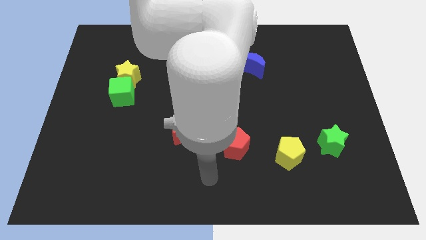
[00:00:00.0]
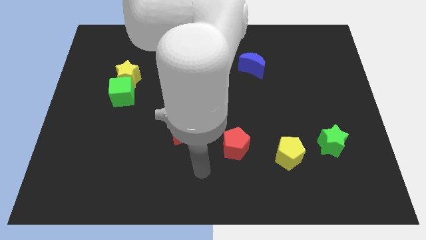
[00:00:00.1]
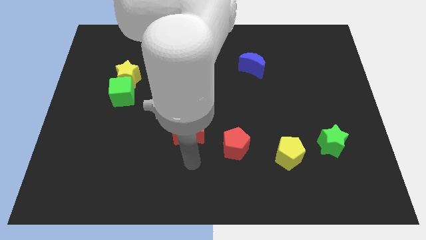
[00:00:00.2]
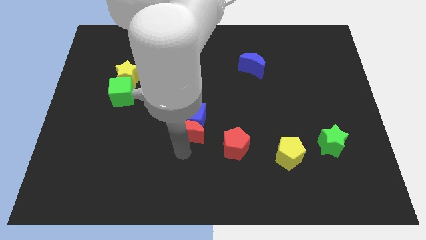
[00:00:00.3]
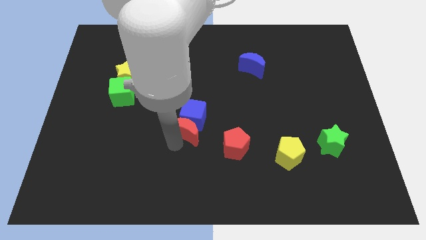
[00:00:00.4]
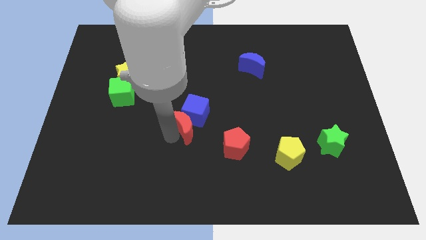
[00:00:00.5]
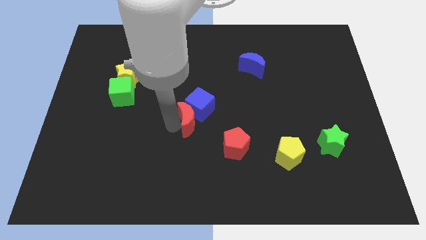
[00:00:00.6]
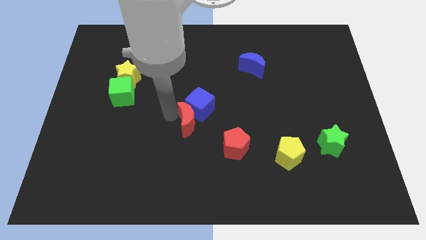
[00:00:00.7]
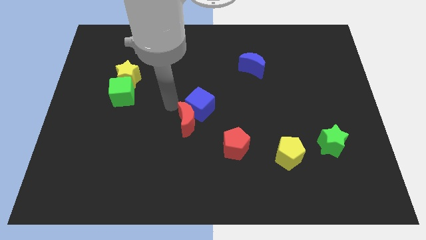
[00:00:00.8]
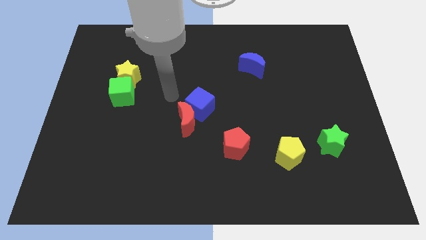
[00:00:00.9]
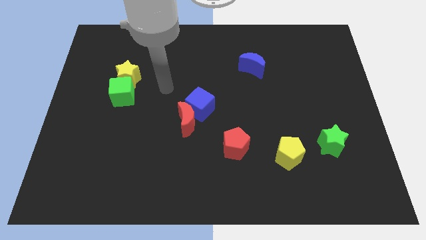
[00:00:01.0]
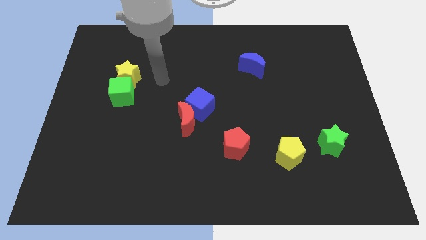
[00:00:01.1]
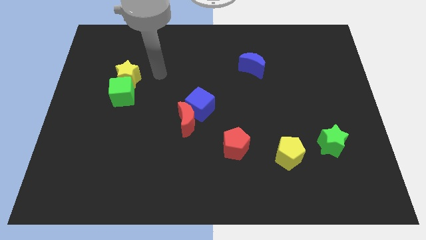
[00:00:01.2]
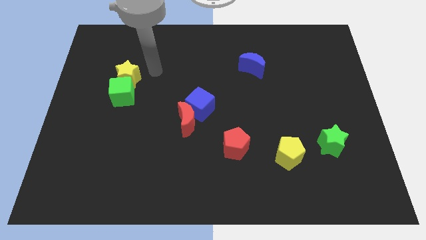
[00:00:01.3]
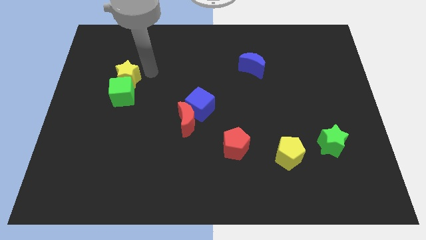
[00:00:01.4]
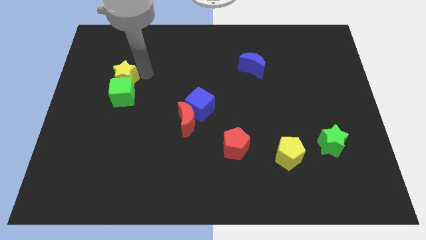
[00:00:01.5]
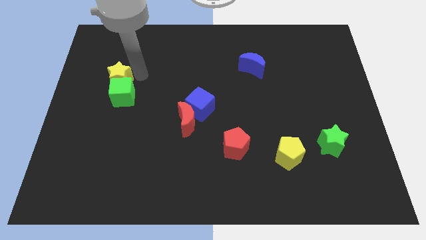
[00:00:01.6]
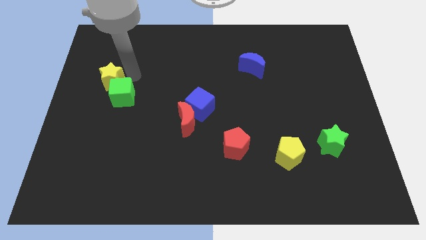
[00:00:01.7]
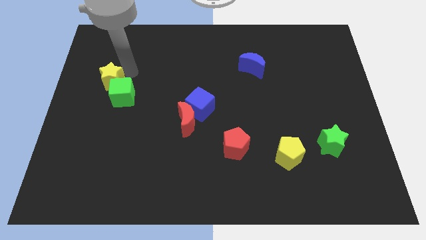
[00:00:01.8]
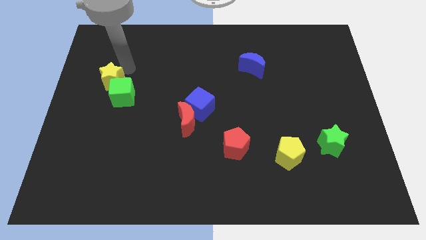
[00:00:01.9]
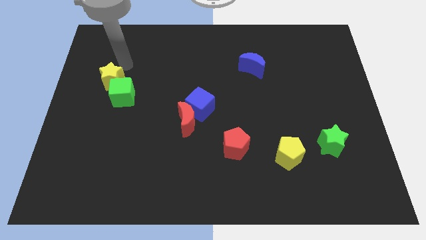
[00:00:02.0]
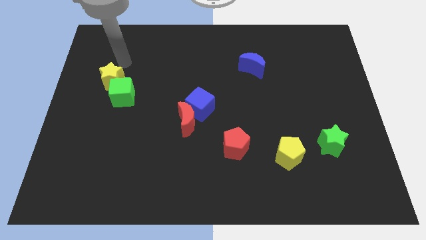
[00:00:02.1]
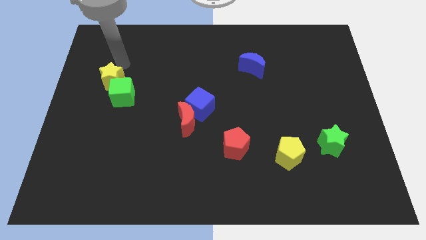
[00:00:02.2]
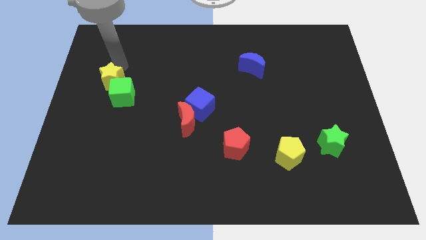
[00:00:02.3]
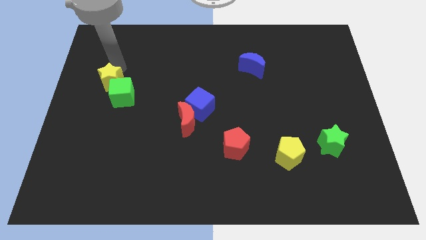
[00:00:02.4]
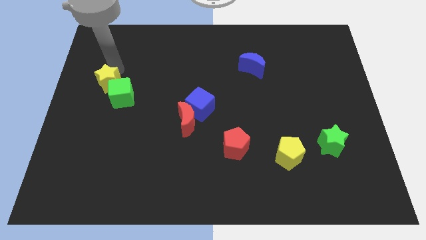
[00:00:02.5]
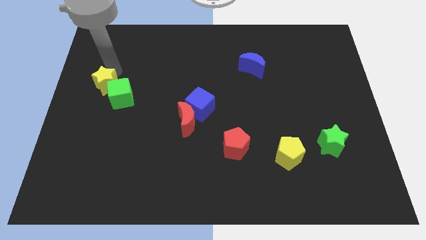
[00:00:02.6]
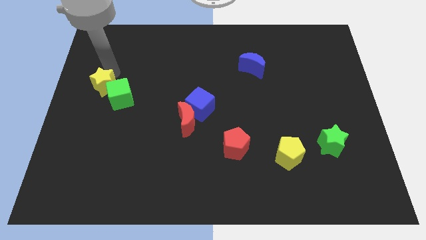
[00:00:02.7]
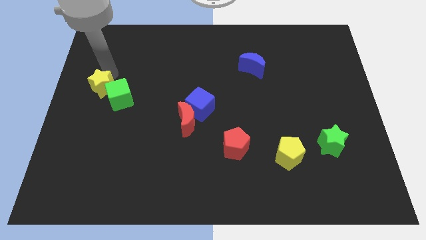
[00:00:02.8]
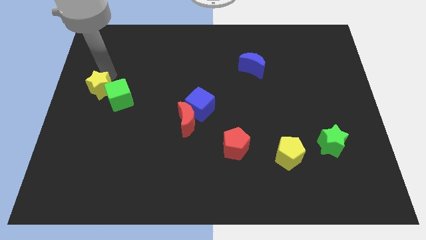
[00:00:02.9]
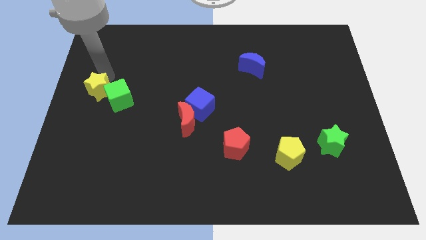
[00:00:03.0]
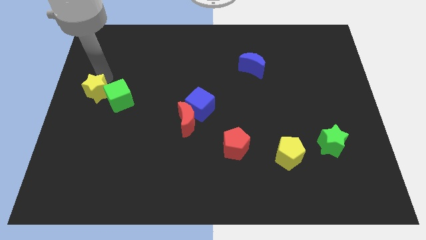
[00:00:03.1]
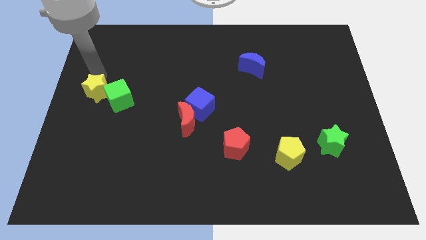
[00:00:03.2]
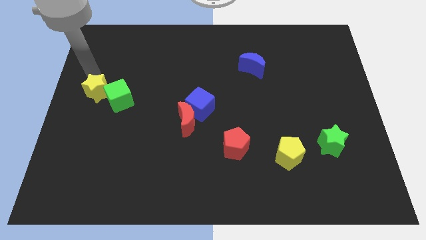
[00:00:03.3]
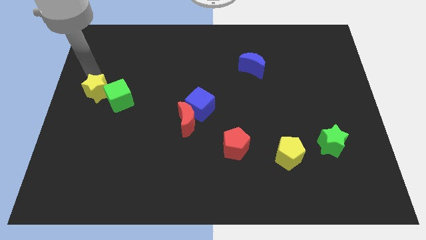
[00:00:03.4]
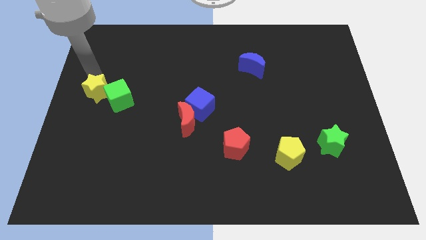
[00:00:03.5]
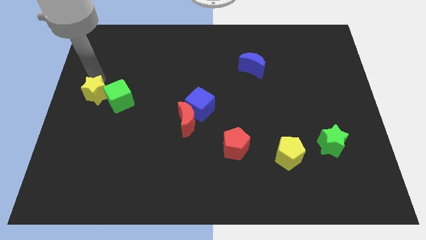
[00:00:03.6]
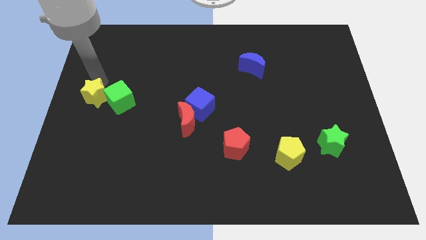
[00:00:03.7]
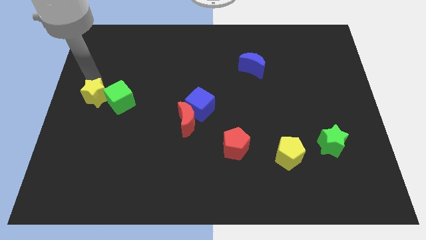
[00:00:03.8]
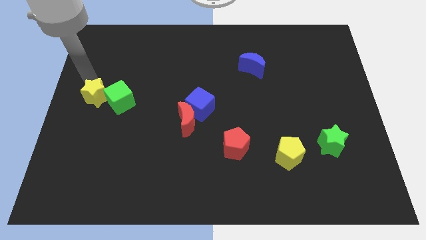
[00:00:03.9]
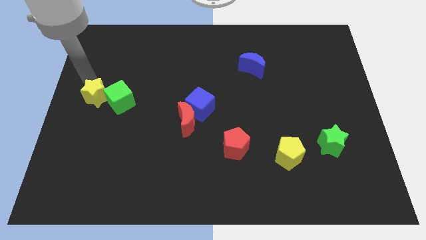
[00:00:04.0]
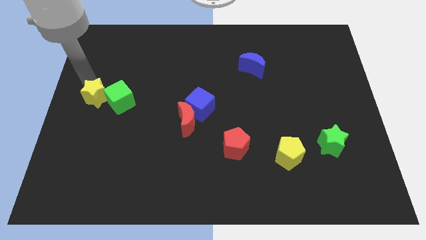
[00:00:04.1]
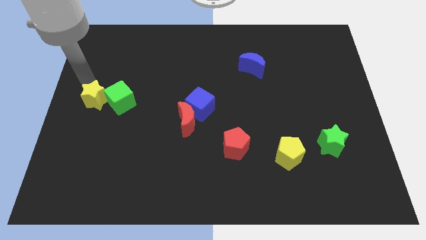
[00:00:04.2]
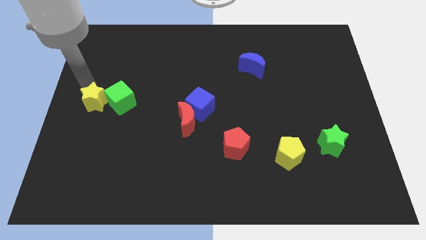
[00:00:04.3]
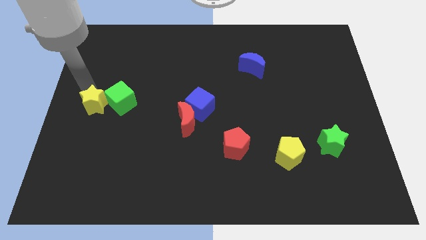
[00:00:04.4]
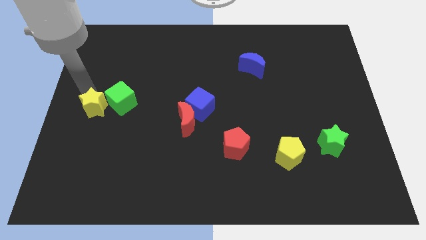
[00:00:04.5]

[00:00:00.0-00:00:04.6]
slide the yellow star downwards slightly

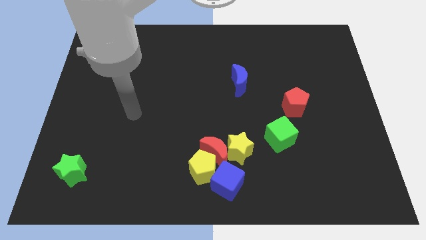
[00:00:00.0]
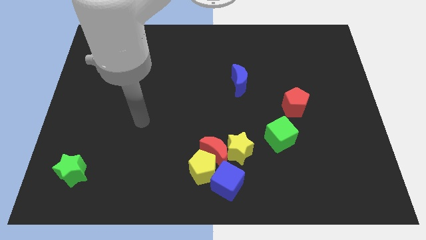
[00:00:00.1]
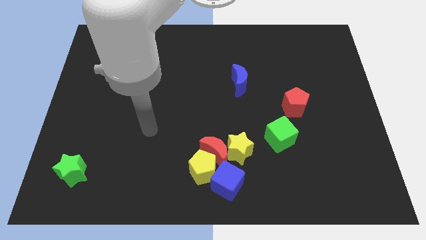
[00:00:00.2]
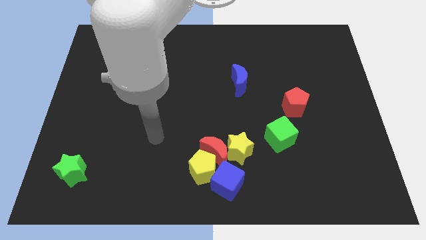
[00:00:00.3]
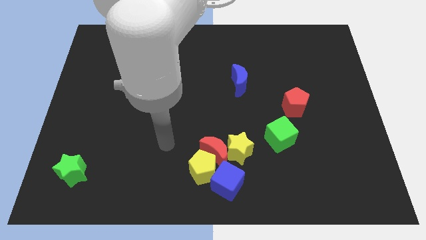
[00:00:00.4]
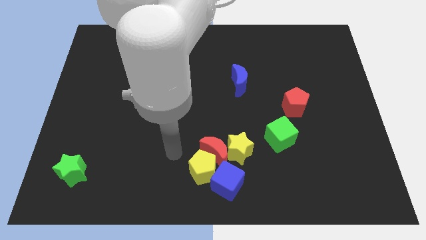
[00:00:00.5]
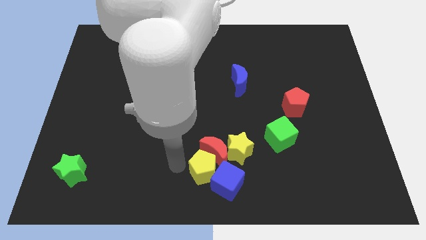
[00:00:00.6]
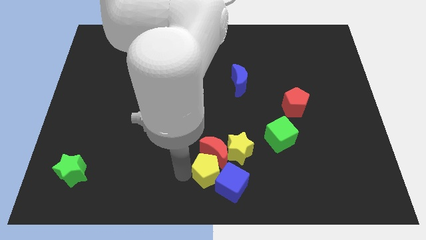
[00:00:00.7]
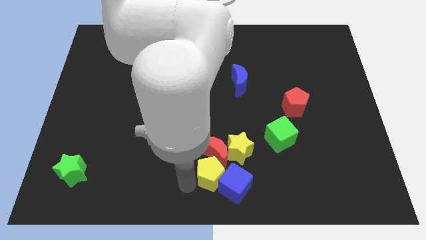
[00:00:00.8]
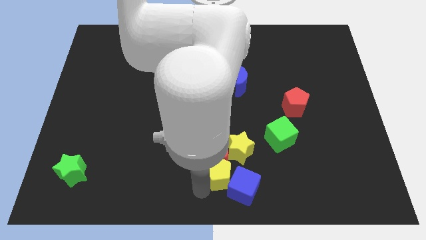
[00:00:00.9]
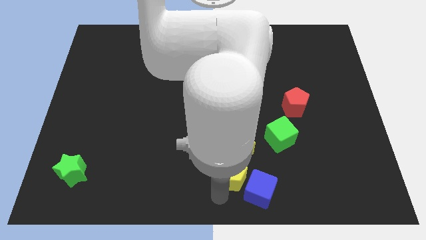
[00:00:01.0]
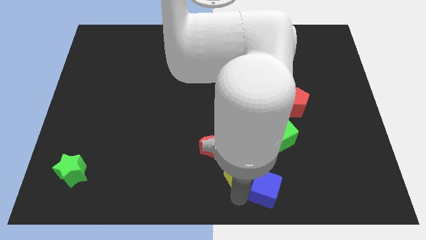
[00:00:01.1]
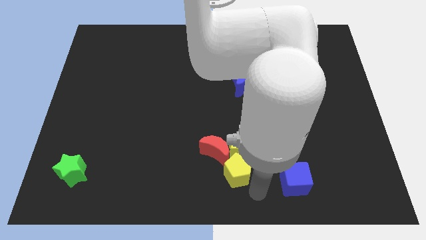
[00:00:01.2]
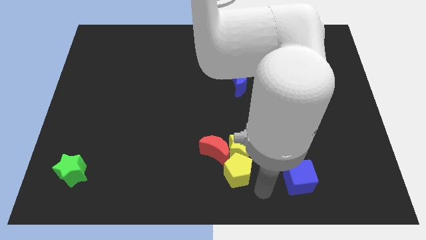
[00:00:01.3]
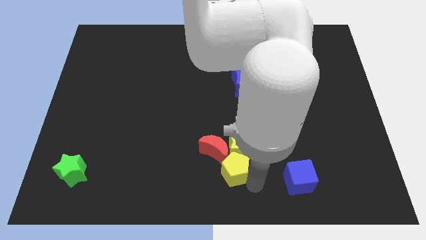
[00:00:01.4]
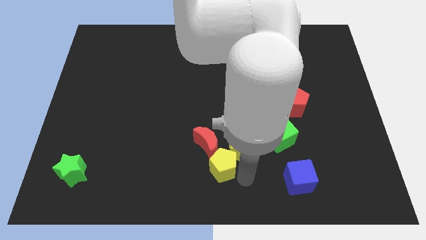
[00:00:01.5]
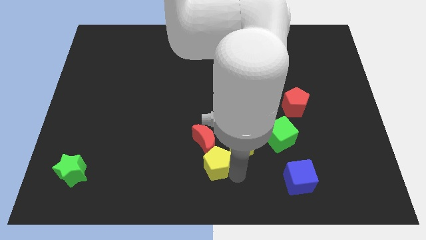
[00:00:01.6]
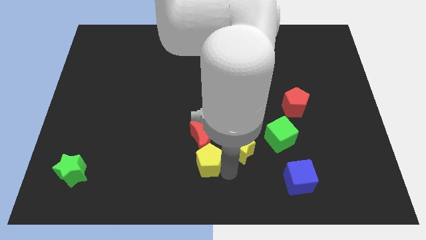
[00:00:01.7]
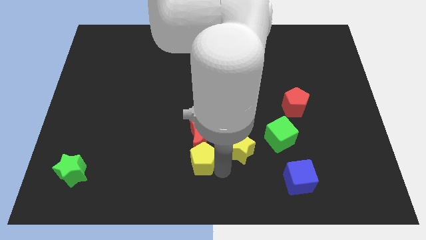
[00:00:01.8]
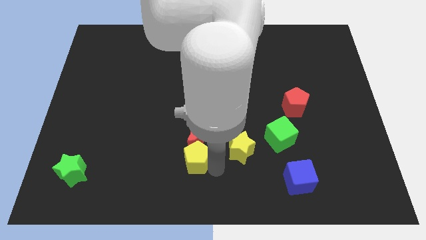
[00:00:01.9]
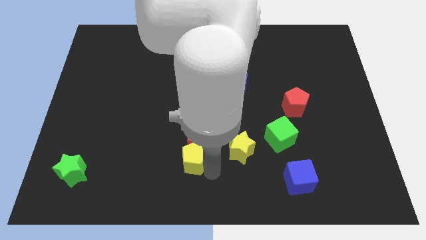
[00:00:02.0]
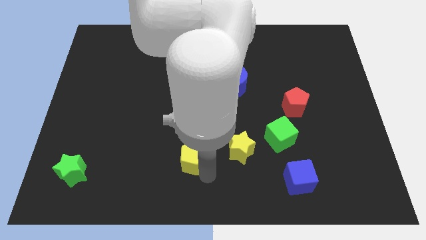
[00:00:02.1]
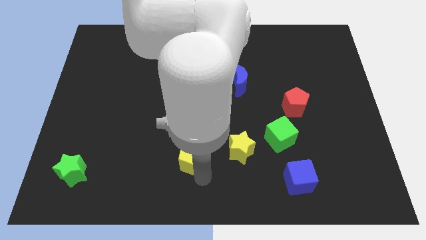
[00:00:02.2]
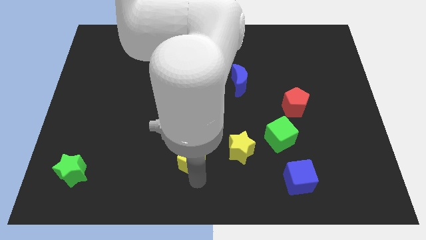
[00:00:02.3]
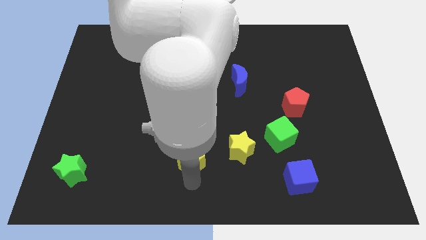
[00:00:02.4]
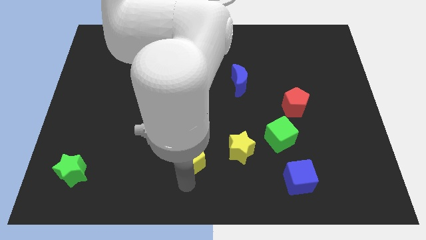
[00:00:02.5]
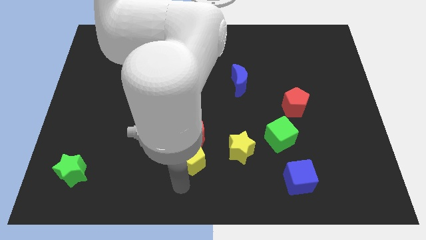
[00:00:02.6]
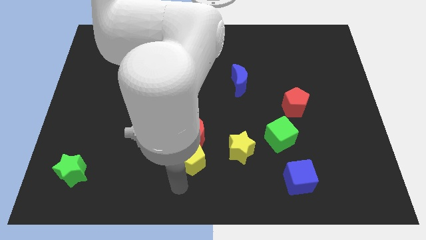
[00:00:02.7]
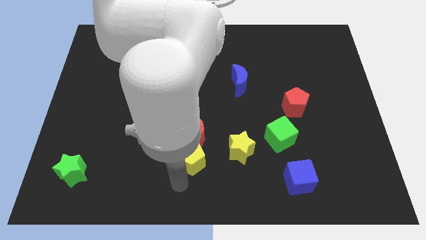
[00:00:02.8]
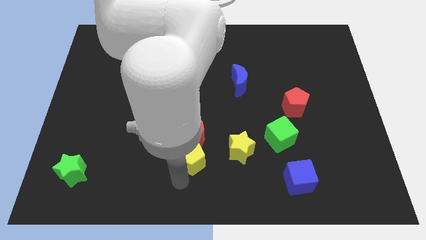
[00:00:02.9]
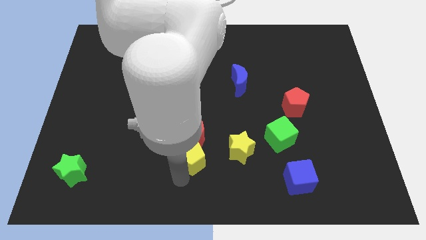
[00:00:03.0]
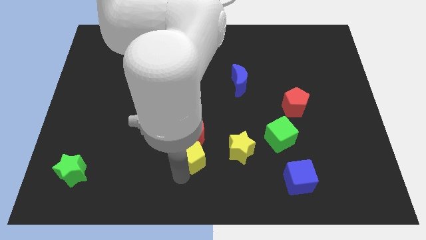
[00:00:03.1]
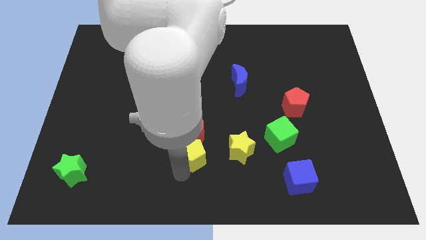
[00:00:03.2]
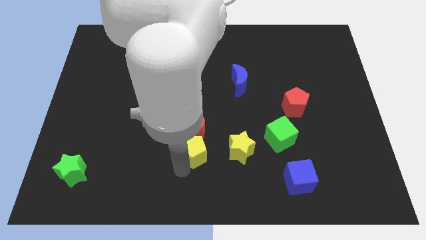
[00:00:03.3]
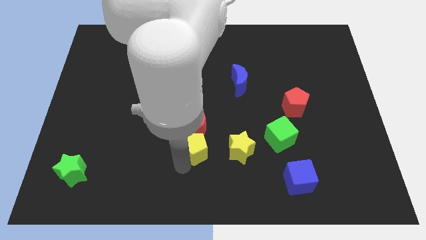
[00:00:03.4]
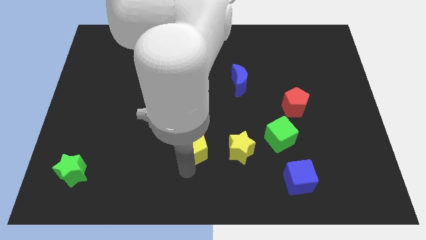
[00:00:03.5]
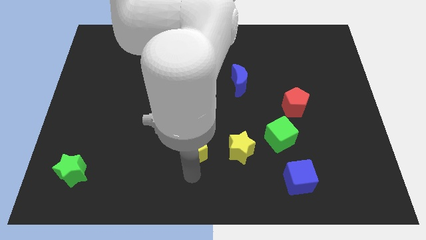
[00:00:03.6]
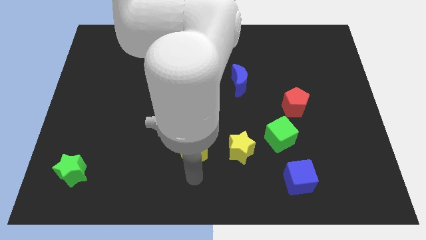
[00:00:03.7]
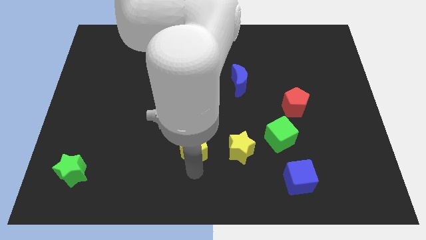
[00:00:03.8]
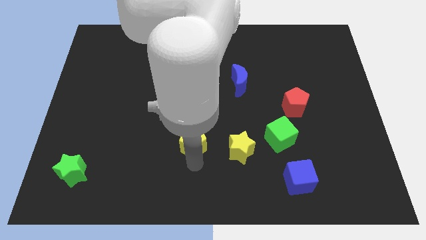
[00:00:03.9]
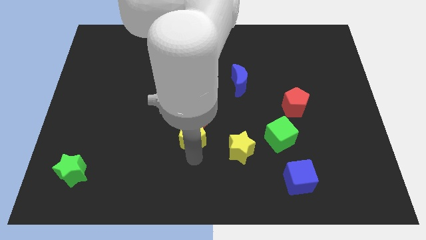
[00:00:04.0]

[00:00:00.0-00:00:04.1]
move the yellow pentagon up a little
